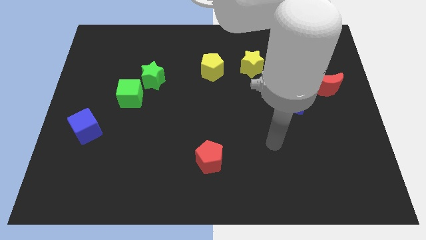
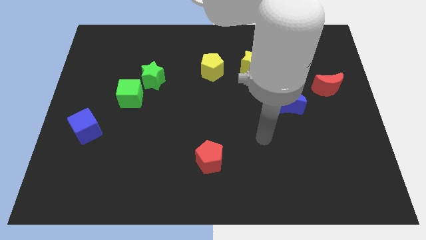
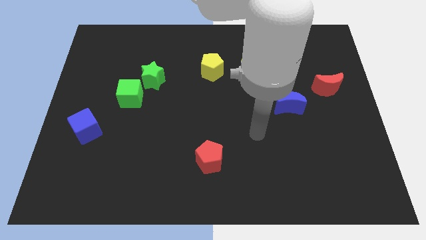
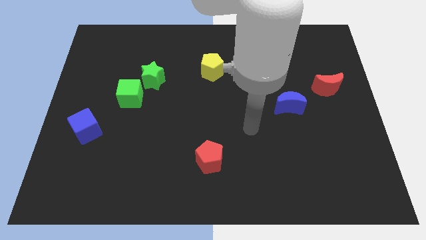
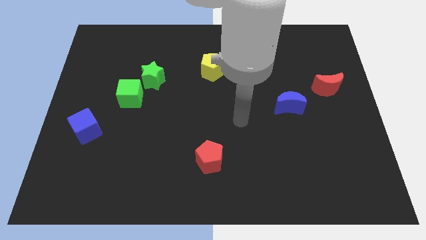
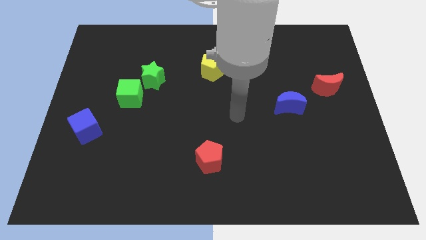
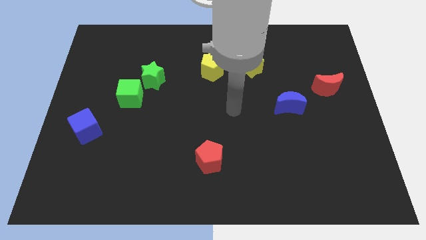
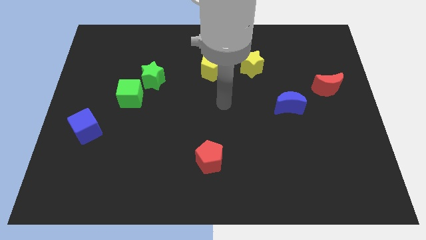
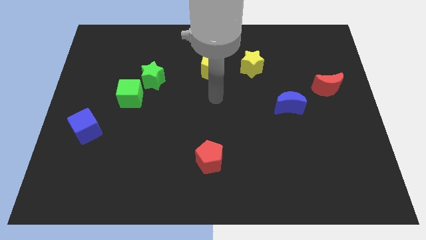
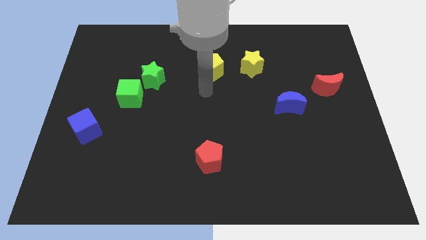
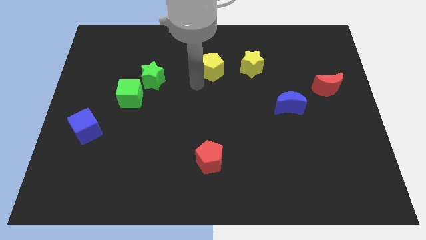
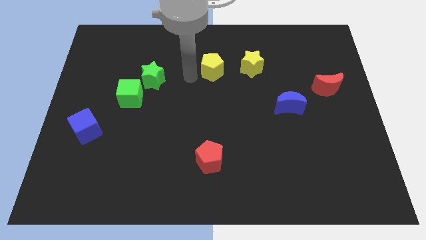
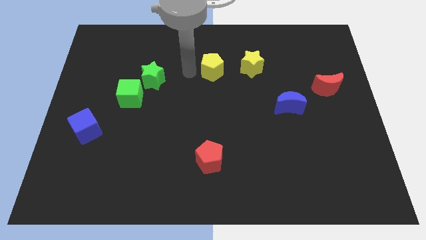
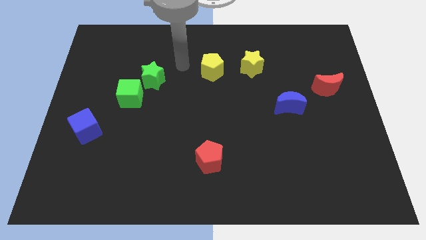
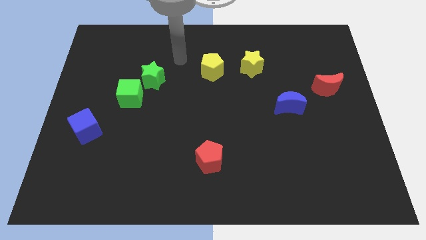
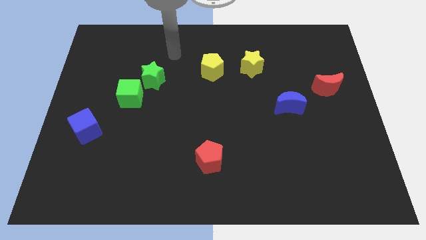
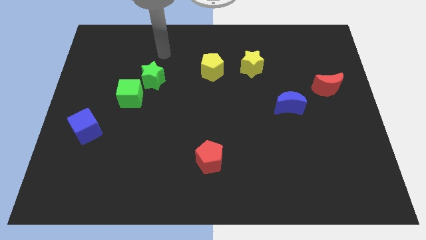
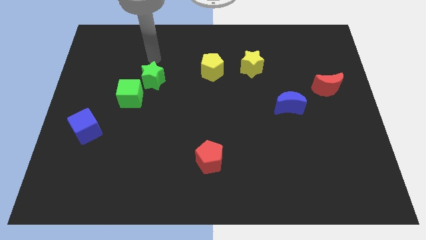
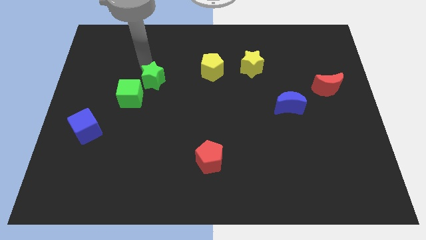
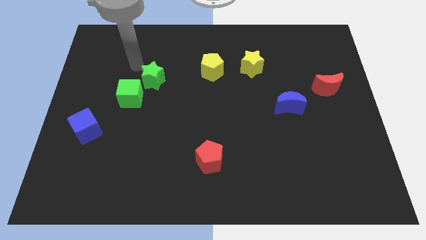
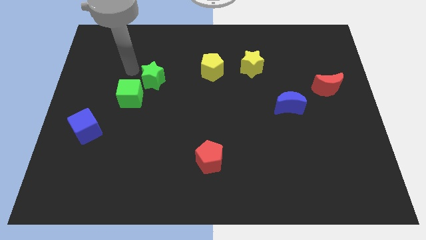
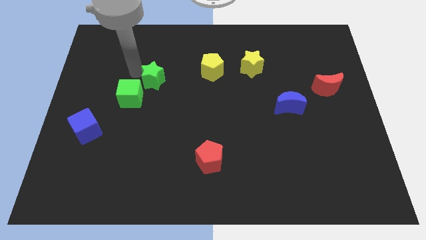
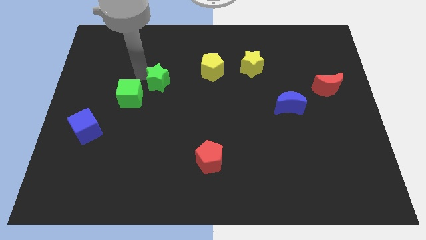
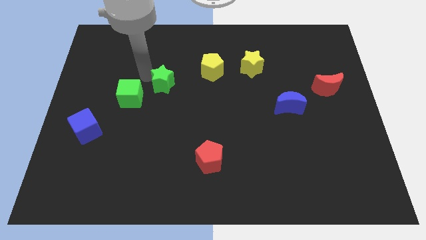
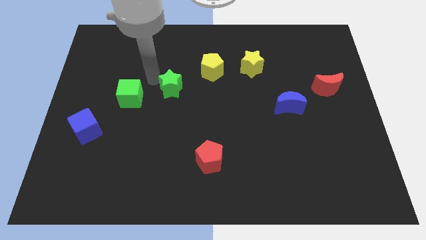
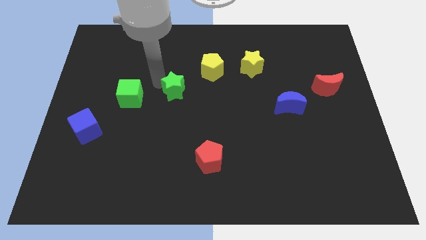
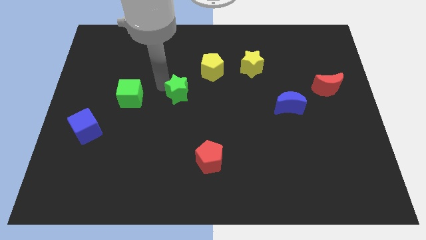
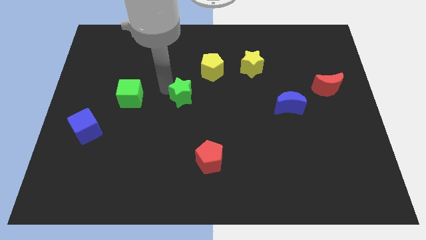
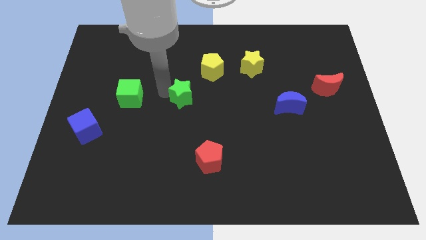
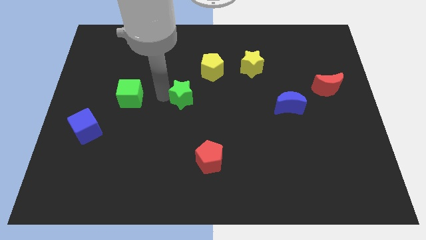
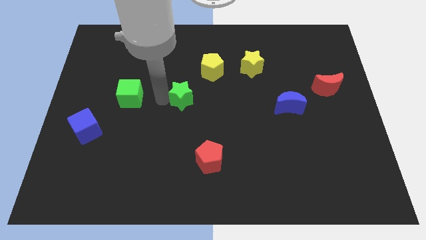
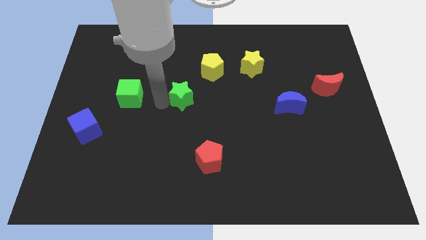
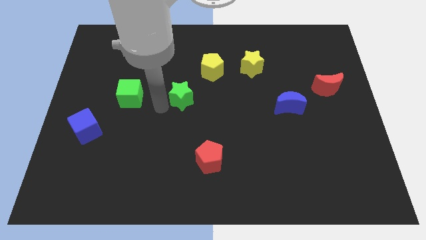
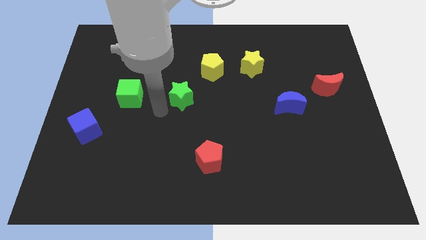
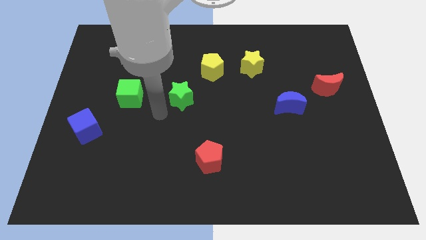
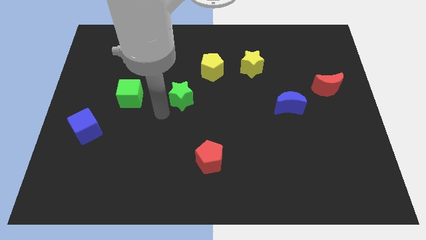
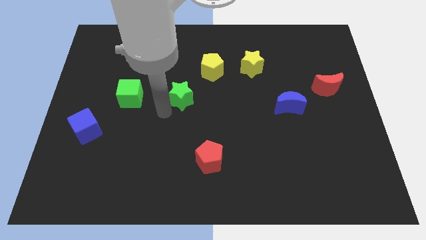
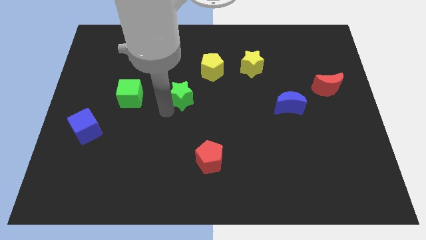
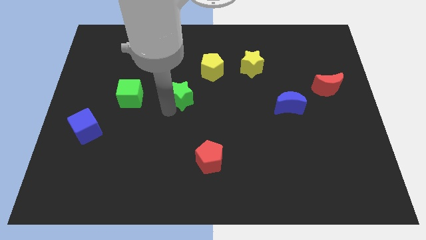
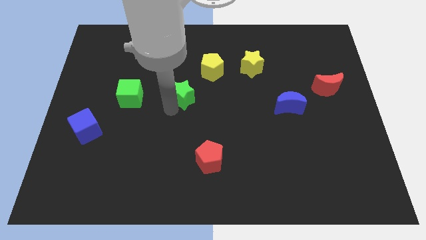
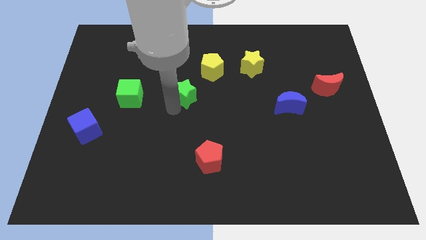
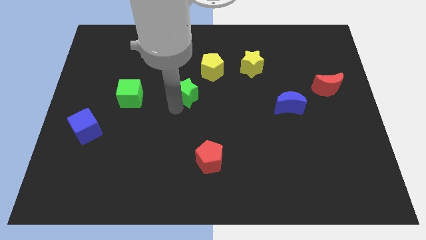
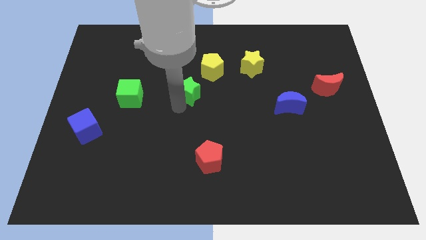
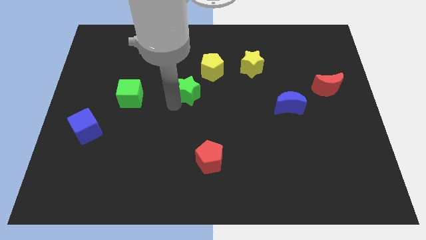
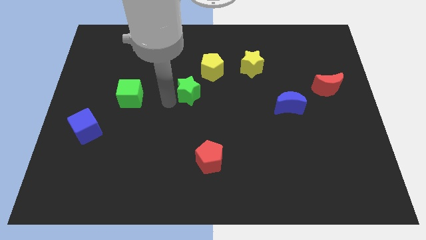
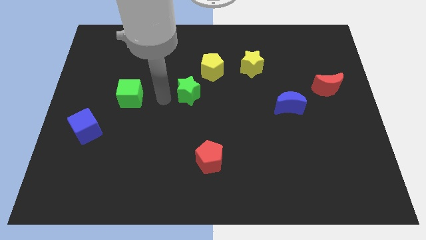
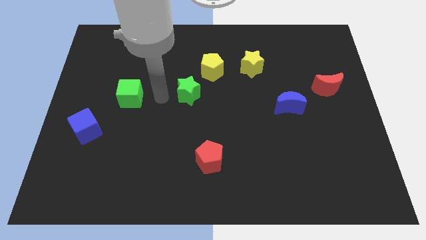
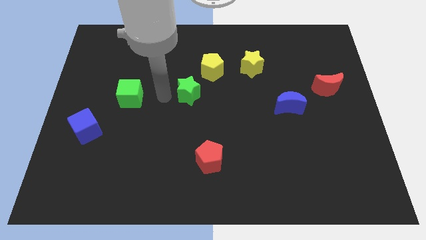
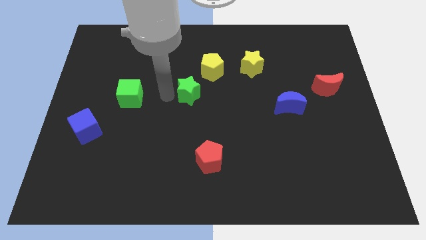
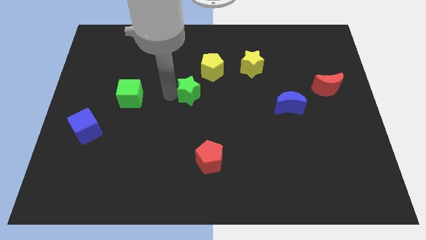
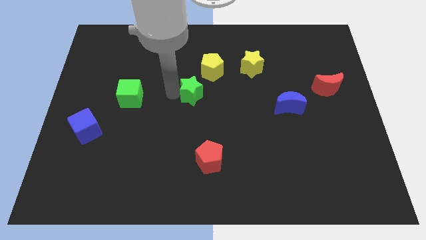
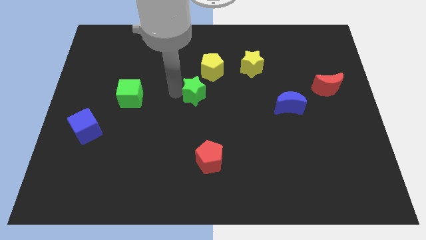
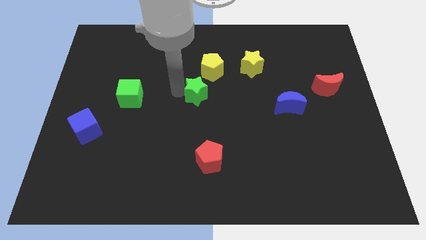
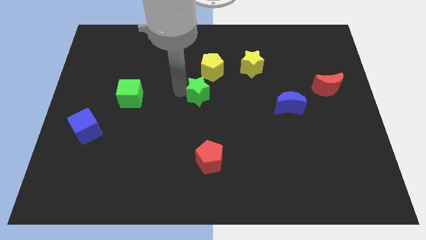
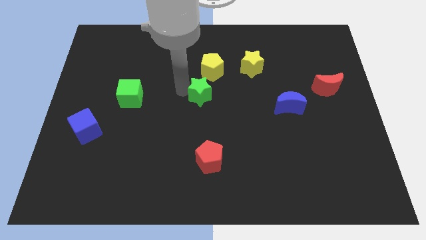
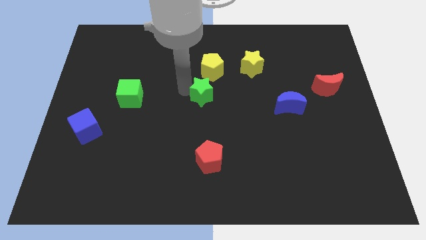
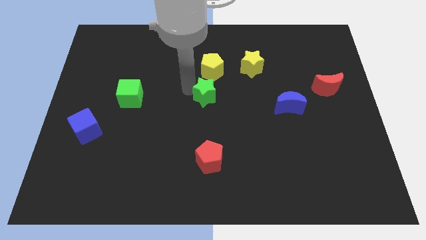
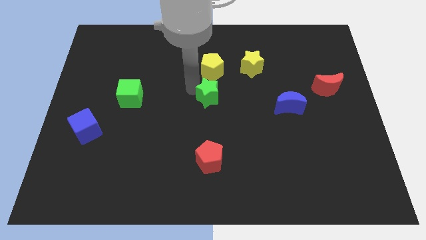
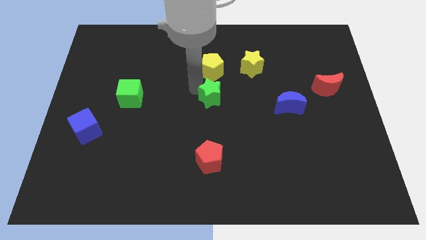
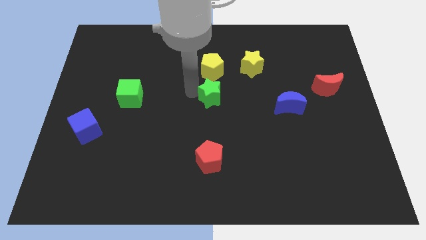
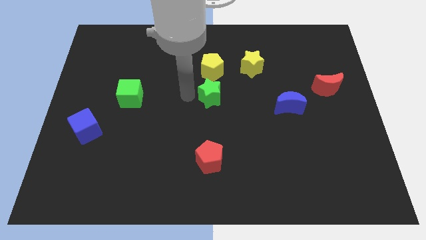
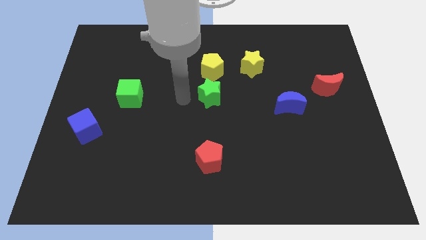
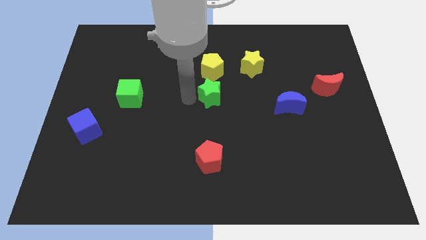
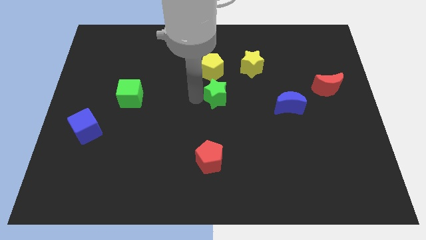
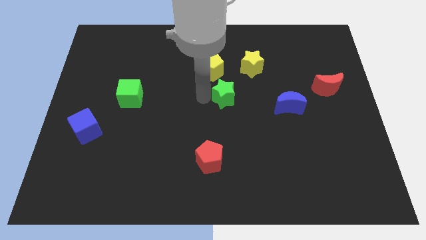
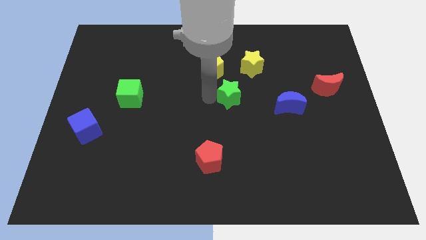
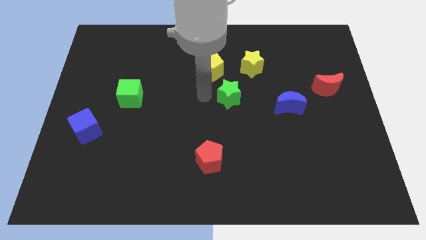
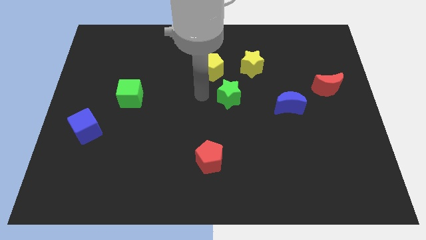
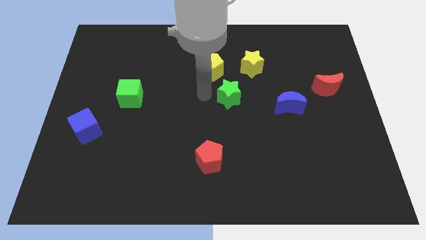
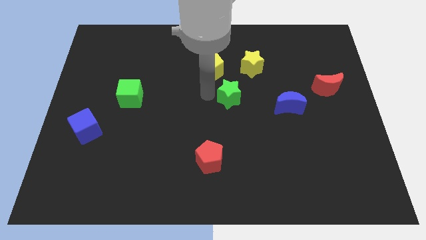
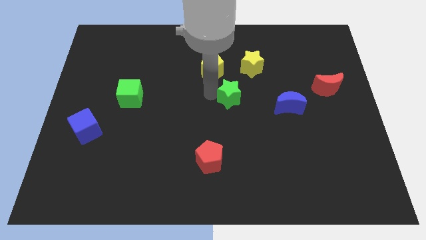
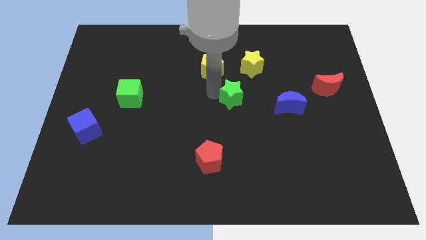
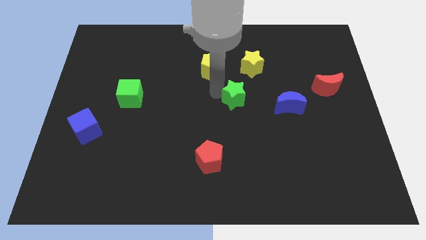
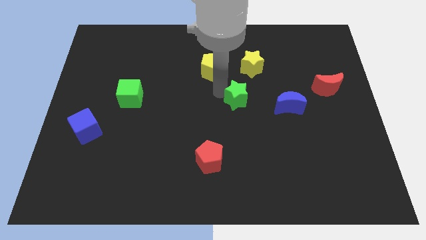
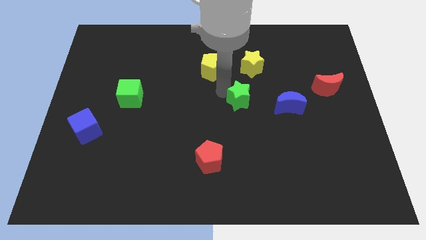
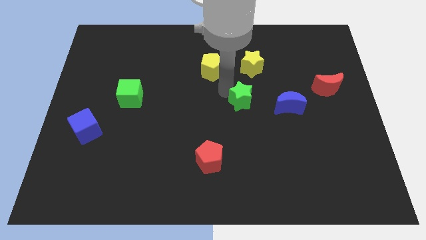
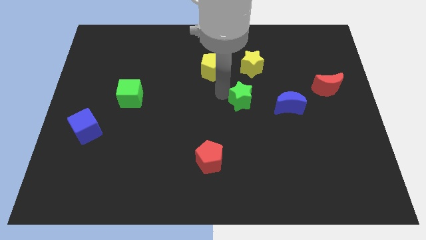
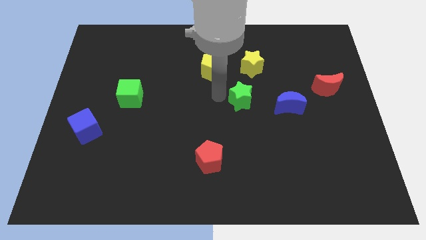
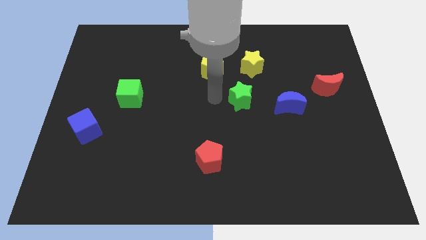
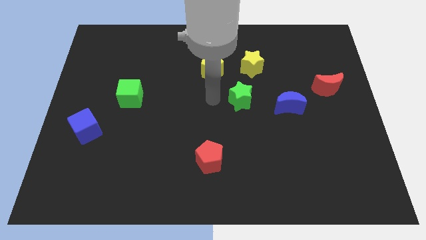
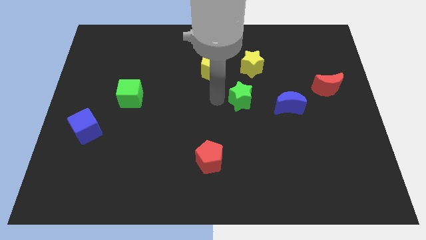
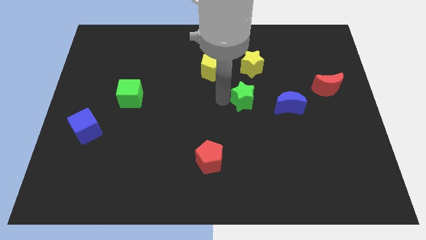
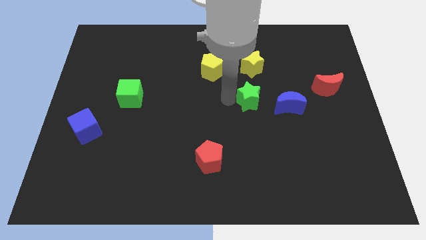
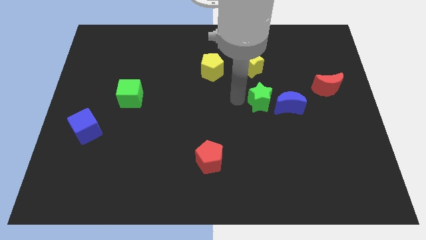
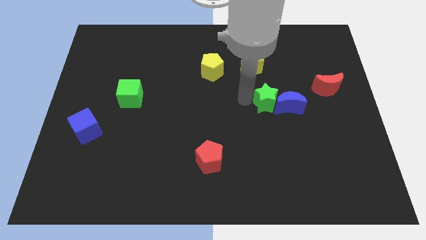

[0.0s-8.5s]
move the green star next to the blue moon
